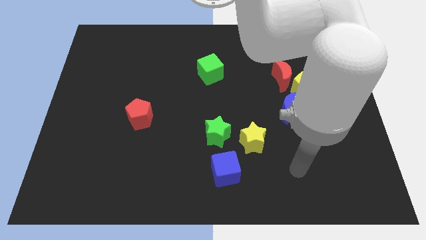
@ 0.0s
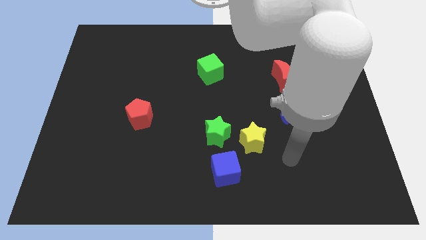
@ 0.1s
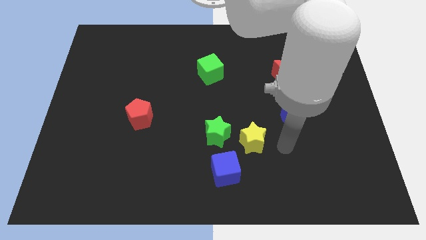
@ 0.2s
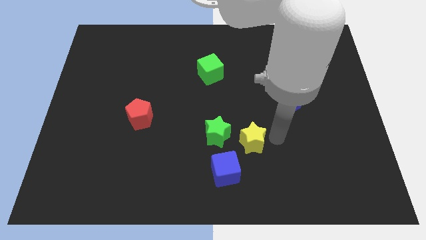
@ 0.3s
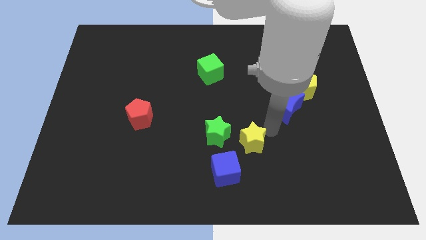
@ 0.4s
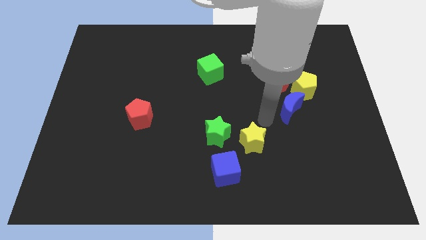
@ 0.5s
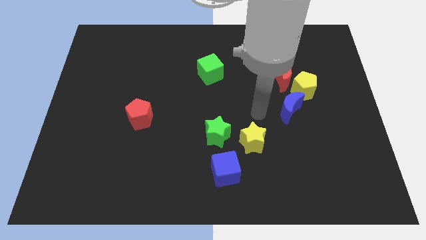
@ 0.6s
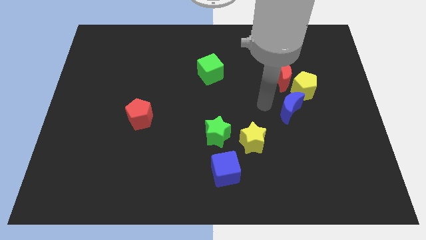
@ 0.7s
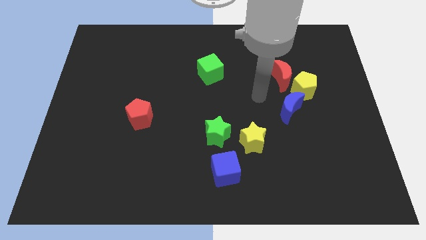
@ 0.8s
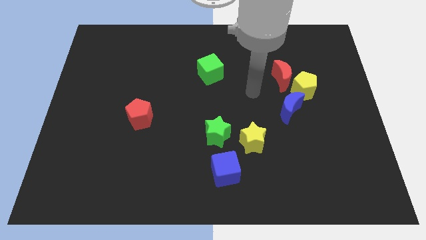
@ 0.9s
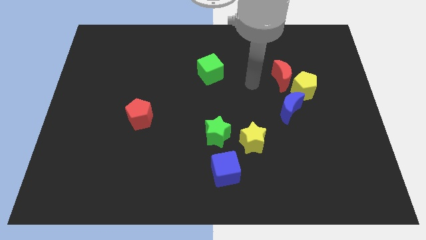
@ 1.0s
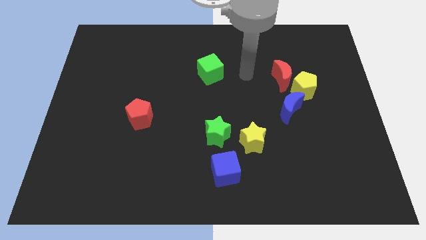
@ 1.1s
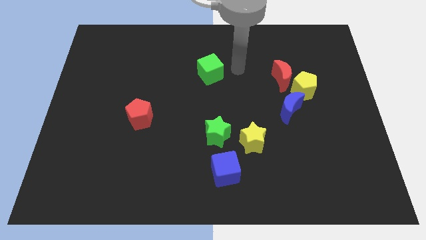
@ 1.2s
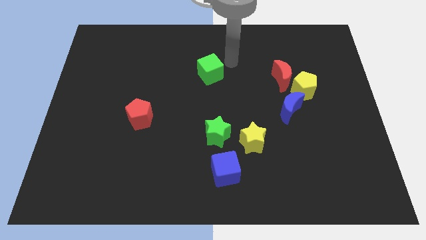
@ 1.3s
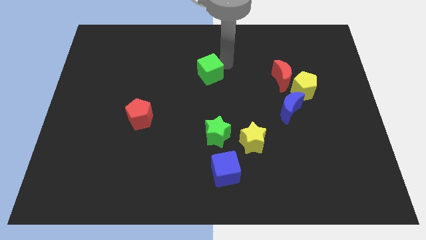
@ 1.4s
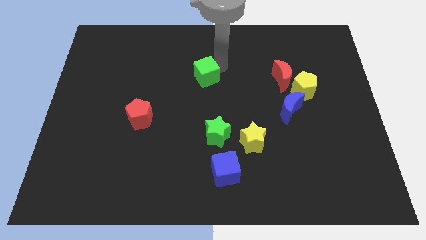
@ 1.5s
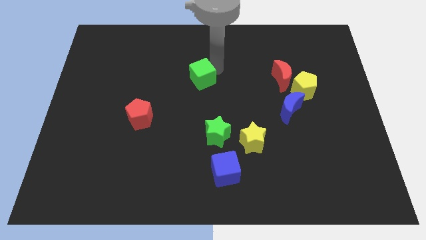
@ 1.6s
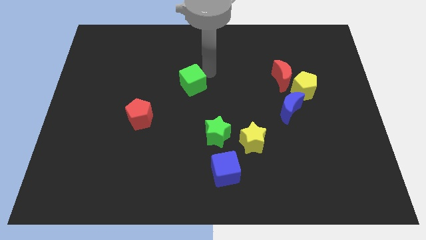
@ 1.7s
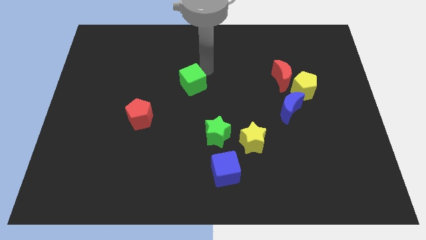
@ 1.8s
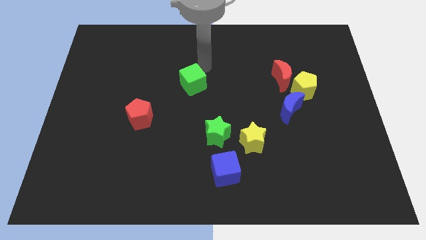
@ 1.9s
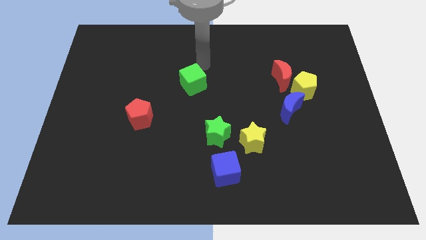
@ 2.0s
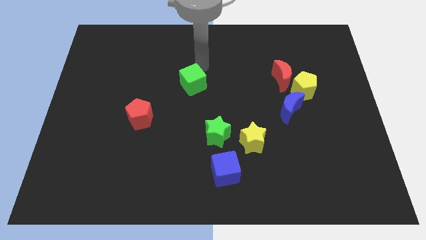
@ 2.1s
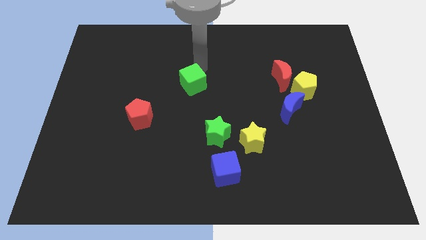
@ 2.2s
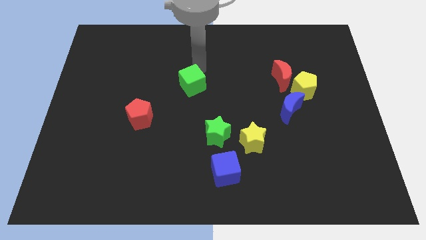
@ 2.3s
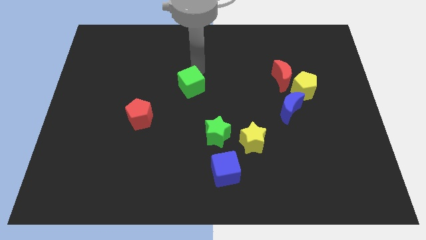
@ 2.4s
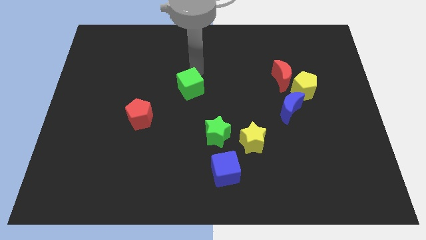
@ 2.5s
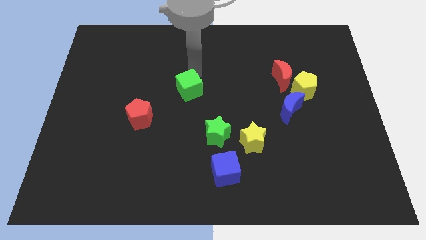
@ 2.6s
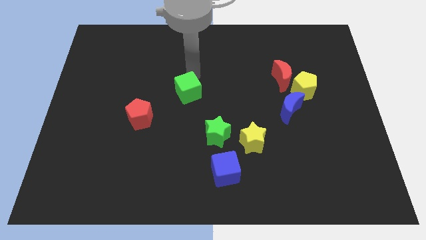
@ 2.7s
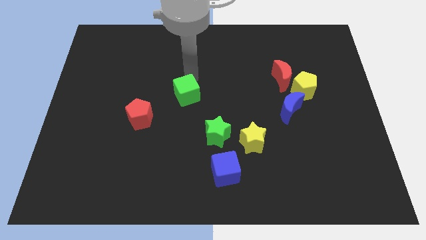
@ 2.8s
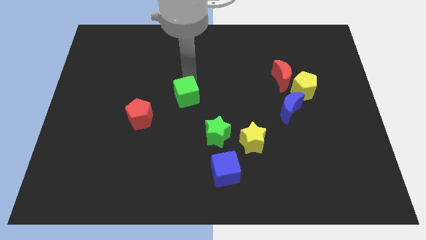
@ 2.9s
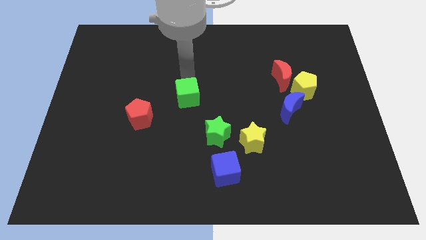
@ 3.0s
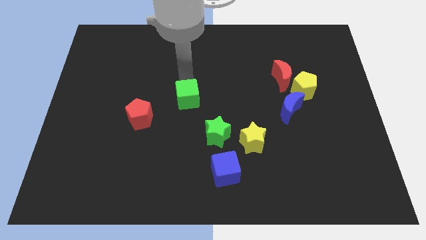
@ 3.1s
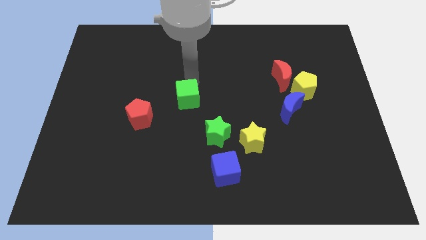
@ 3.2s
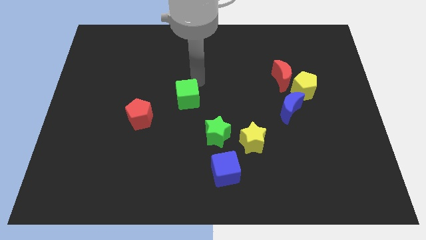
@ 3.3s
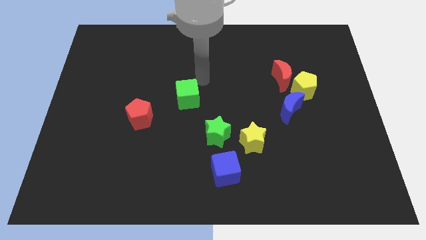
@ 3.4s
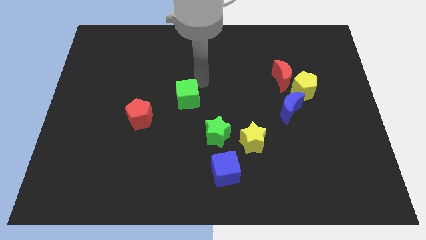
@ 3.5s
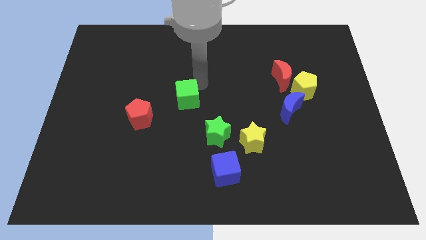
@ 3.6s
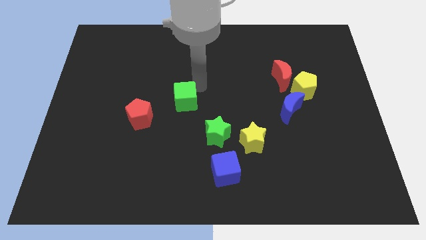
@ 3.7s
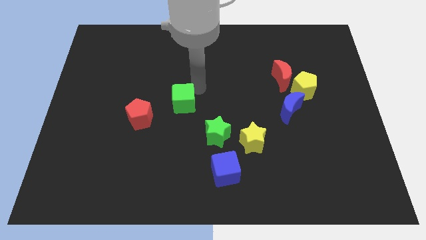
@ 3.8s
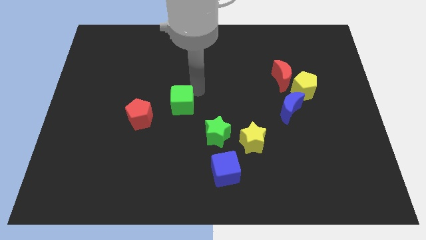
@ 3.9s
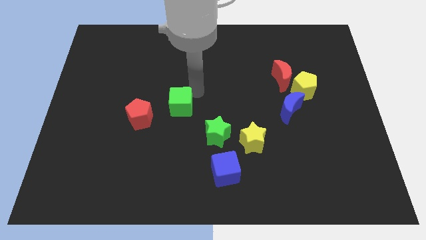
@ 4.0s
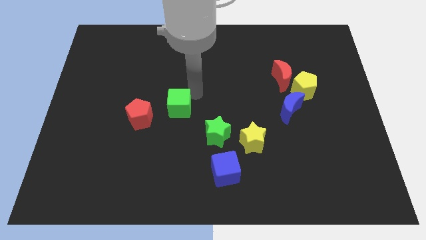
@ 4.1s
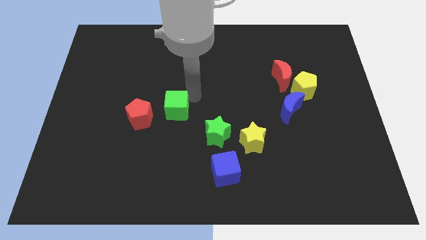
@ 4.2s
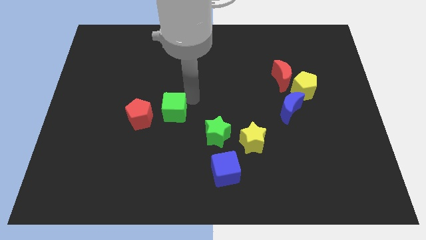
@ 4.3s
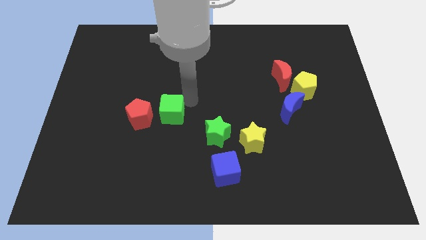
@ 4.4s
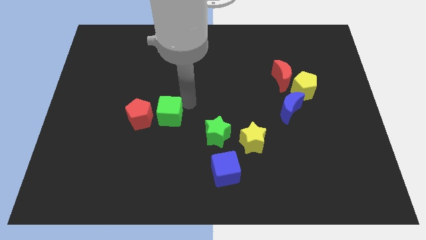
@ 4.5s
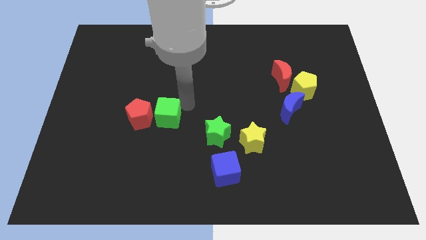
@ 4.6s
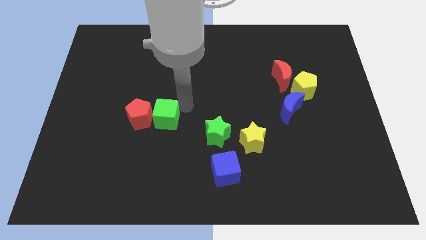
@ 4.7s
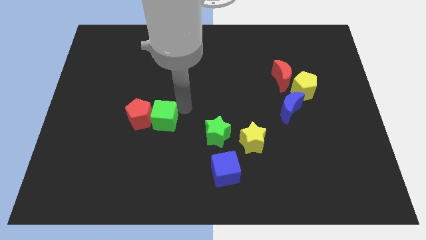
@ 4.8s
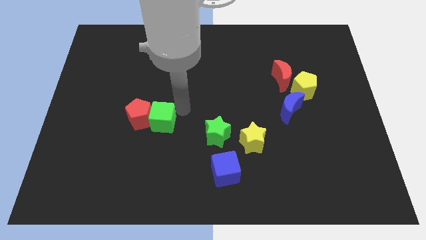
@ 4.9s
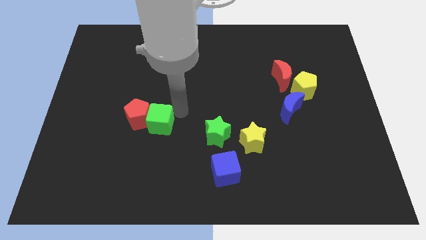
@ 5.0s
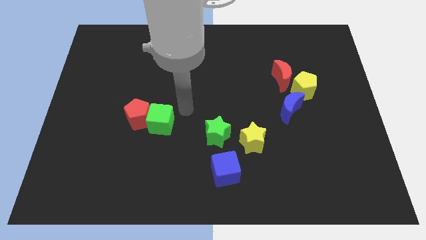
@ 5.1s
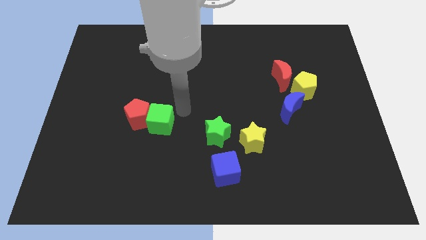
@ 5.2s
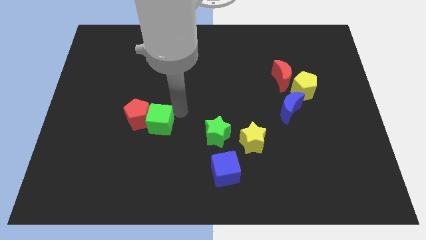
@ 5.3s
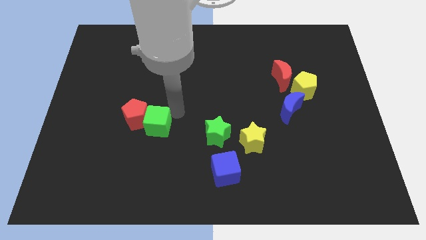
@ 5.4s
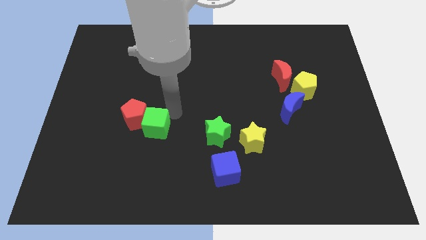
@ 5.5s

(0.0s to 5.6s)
move the green cube diagonally down and to the left

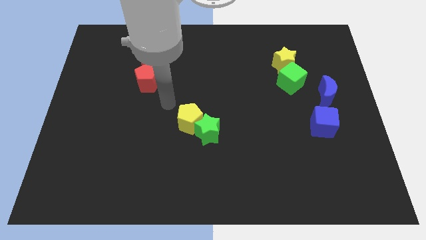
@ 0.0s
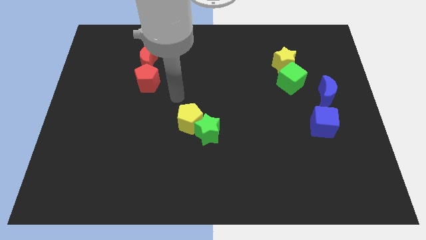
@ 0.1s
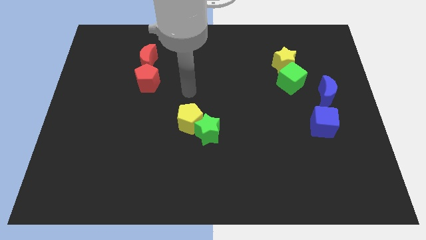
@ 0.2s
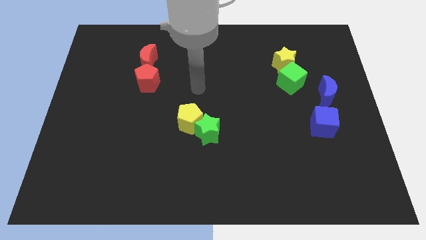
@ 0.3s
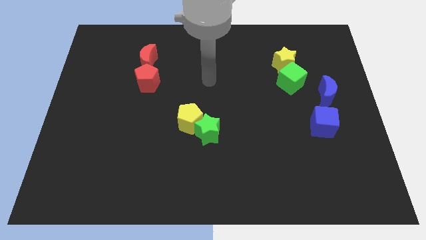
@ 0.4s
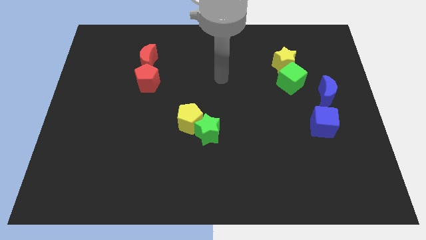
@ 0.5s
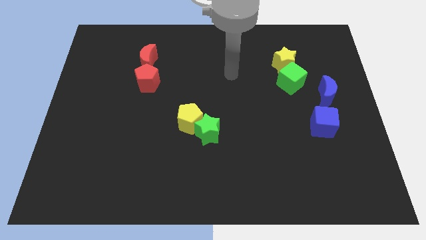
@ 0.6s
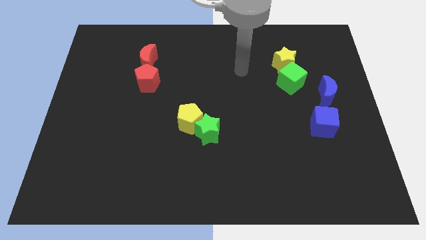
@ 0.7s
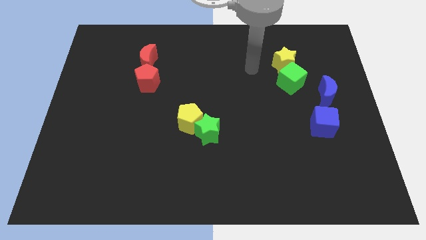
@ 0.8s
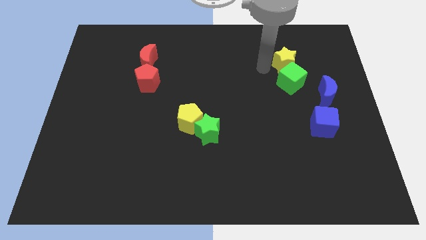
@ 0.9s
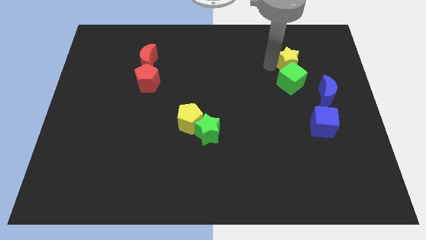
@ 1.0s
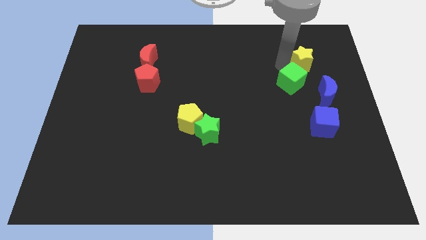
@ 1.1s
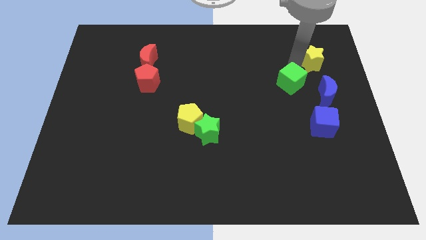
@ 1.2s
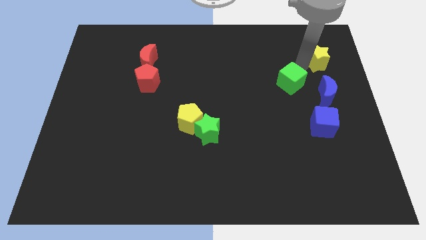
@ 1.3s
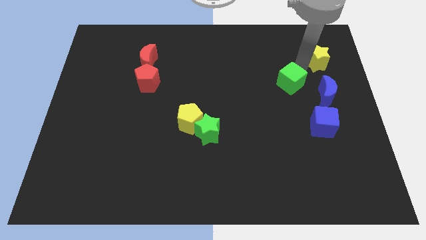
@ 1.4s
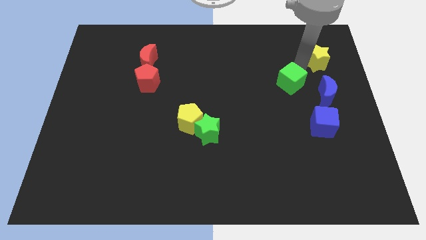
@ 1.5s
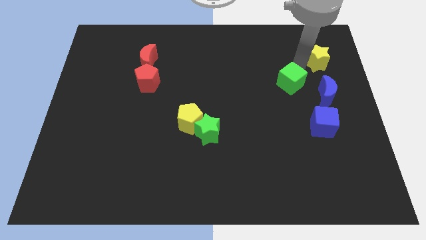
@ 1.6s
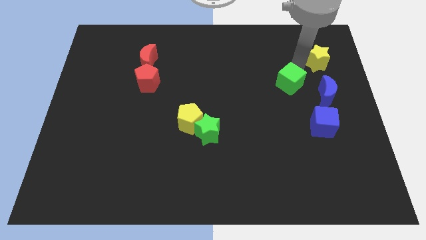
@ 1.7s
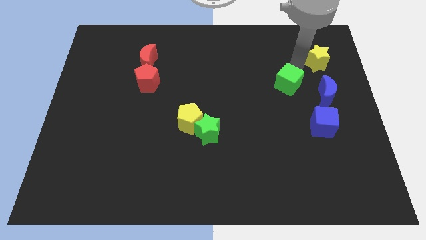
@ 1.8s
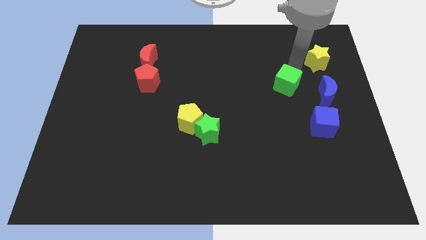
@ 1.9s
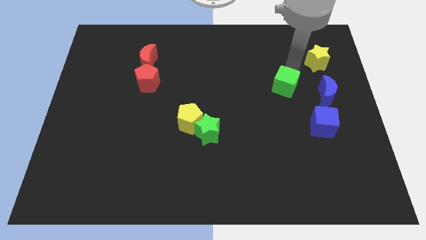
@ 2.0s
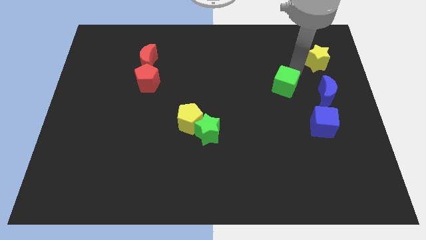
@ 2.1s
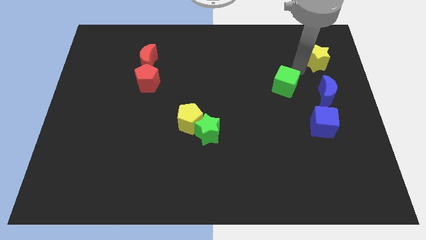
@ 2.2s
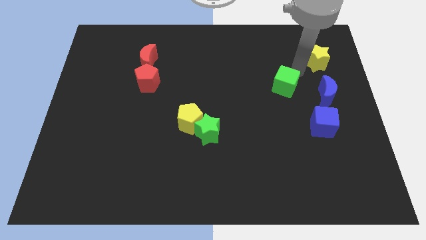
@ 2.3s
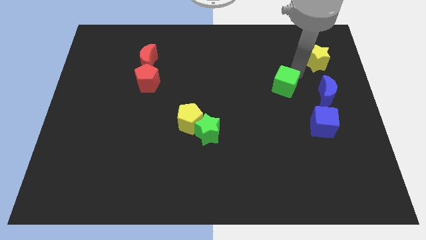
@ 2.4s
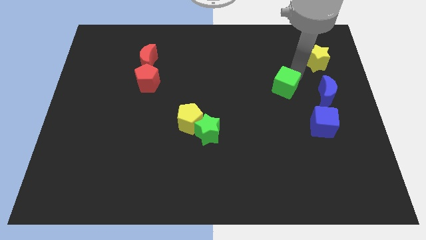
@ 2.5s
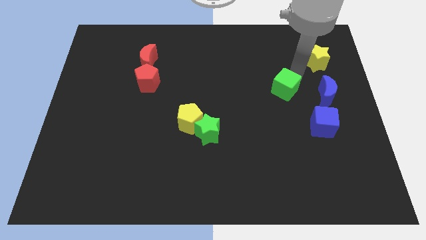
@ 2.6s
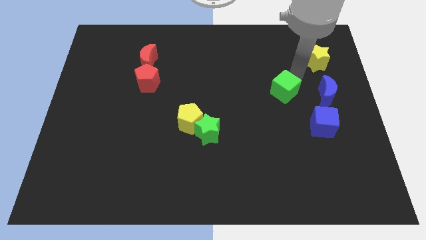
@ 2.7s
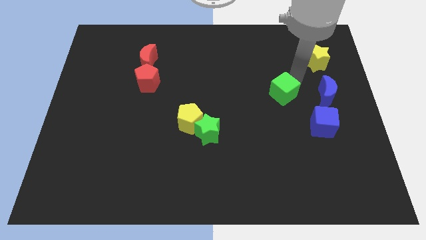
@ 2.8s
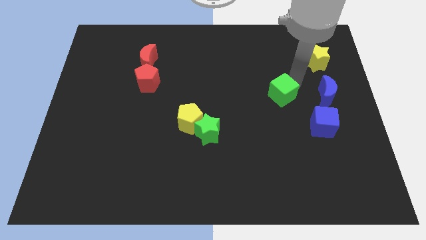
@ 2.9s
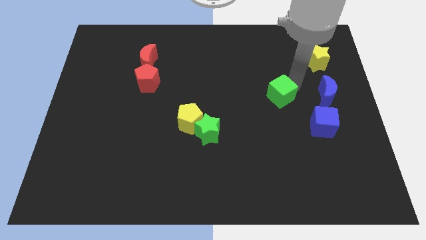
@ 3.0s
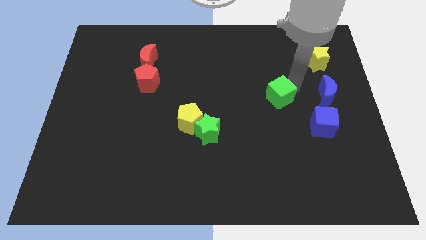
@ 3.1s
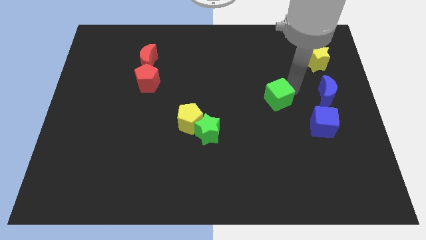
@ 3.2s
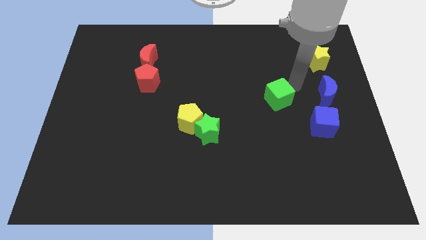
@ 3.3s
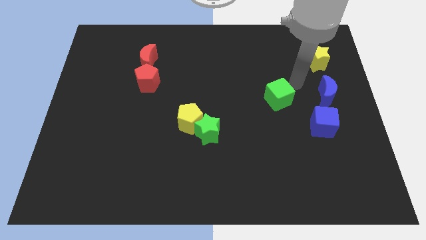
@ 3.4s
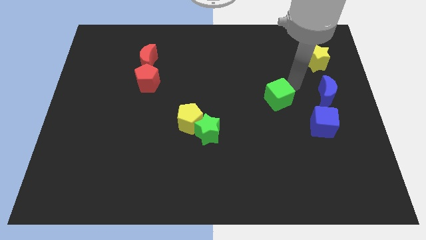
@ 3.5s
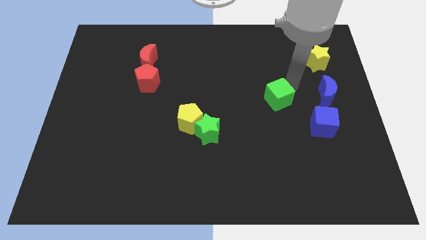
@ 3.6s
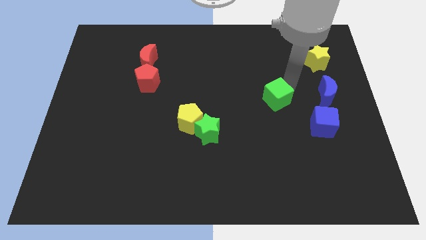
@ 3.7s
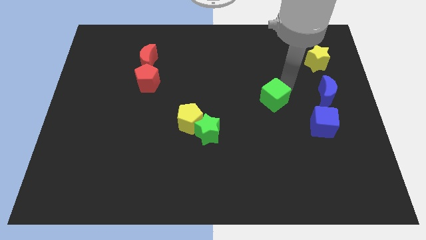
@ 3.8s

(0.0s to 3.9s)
slide the green cube a bit down and then to the left
